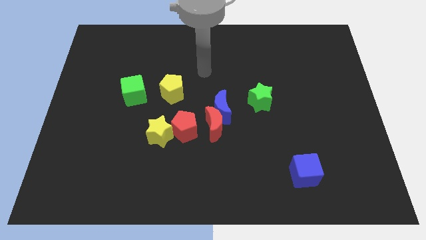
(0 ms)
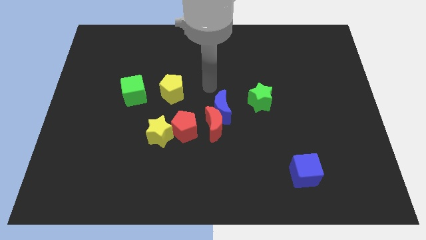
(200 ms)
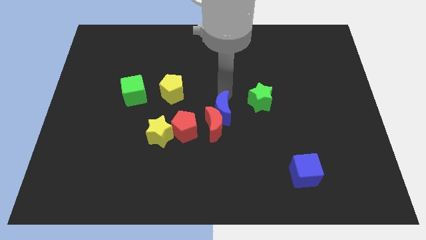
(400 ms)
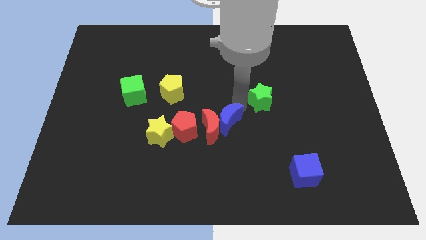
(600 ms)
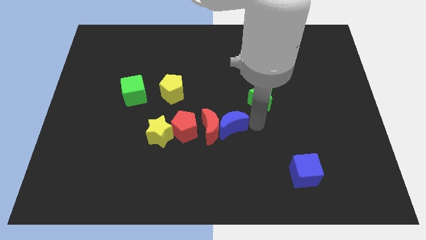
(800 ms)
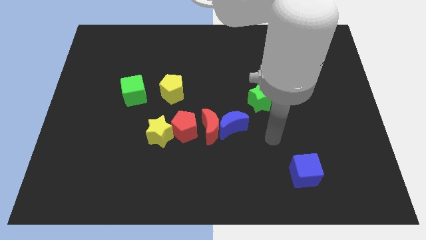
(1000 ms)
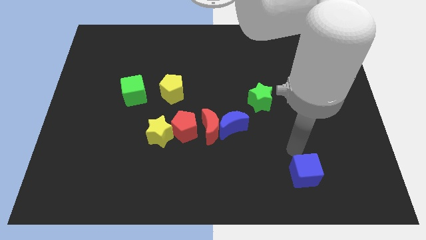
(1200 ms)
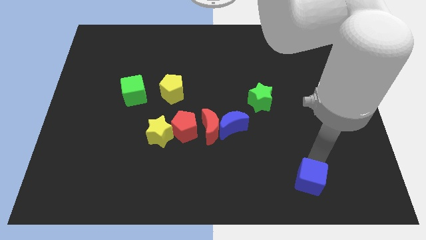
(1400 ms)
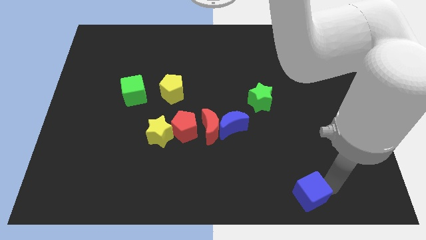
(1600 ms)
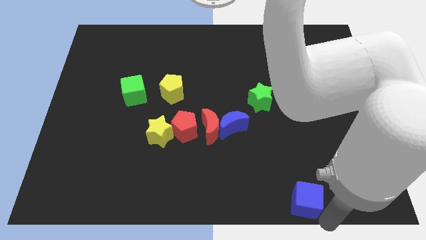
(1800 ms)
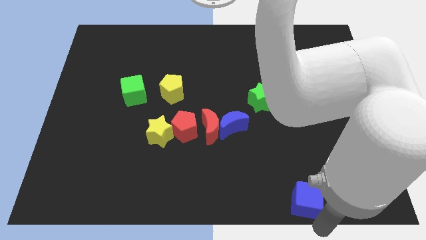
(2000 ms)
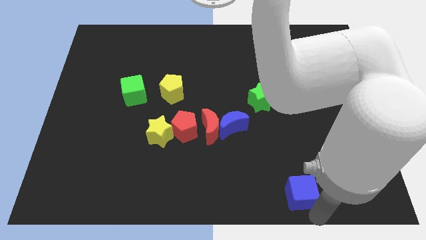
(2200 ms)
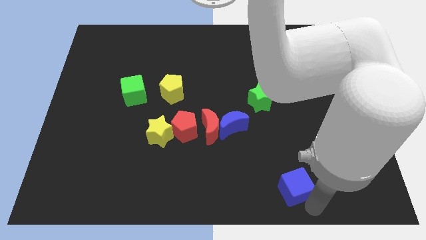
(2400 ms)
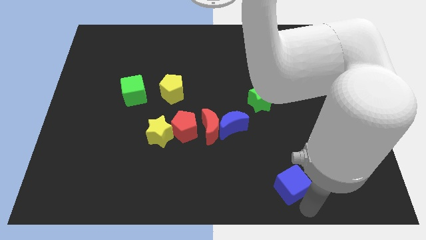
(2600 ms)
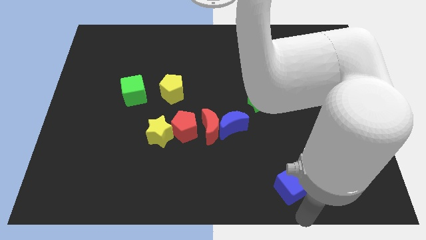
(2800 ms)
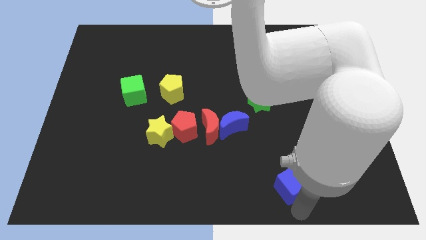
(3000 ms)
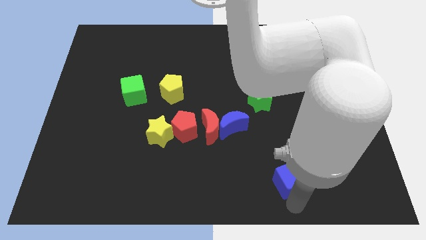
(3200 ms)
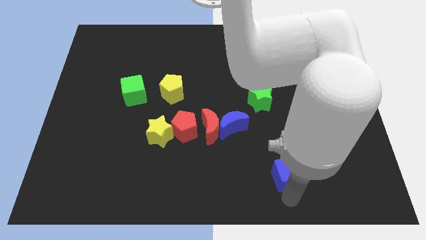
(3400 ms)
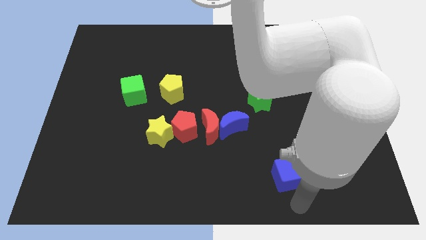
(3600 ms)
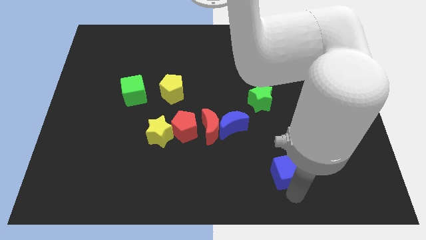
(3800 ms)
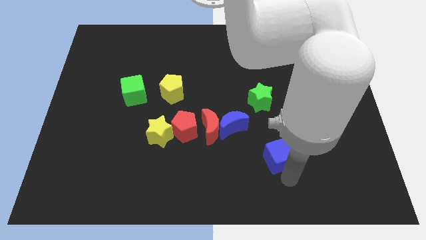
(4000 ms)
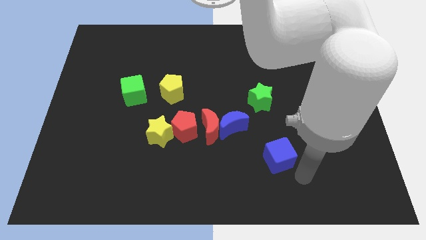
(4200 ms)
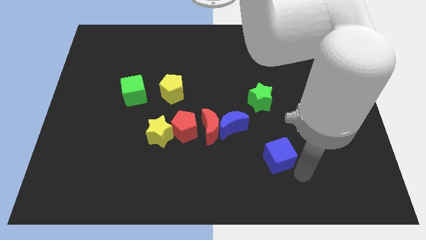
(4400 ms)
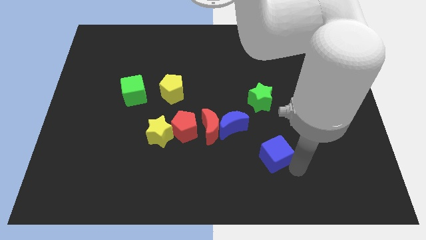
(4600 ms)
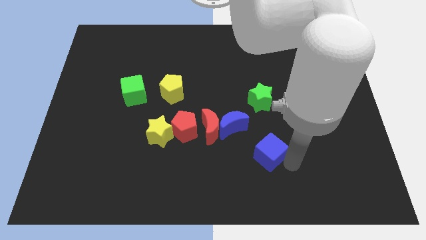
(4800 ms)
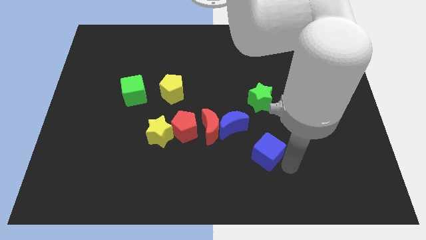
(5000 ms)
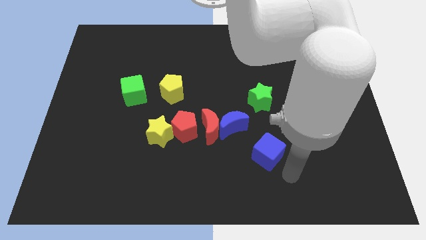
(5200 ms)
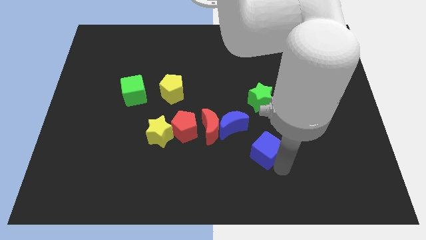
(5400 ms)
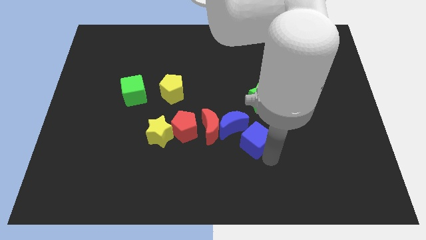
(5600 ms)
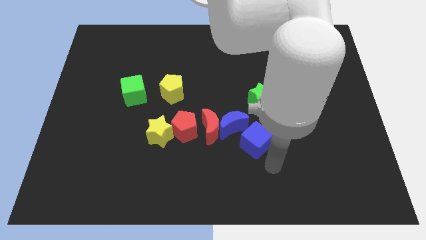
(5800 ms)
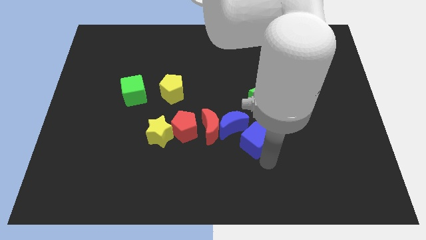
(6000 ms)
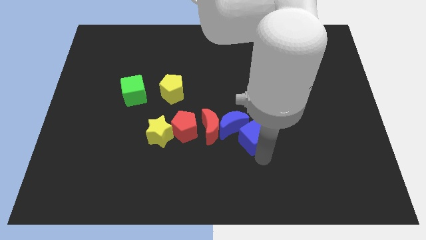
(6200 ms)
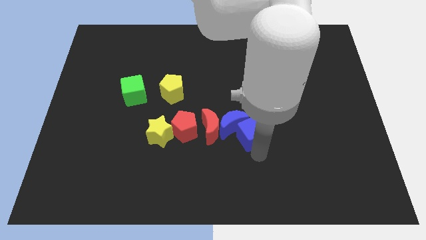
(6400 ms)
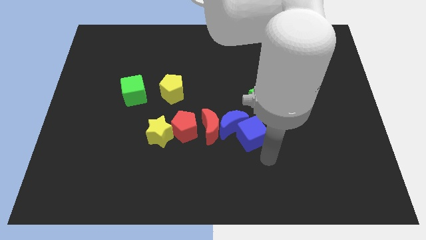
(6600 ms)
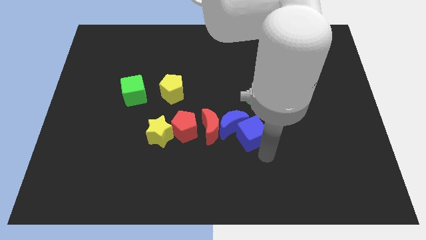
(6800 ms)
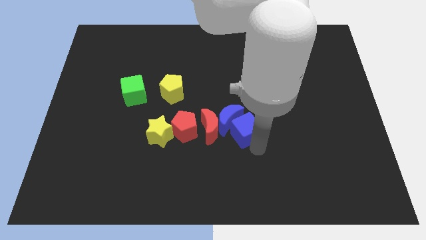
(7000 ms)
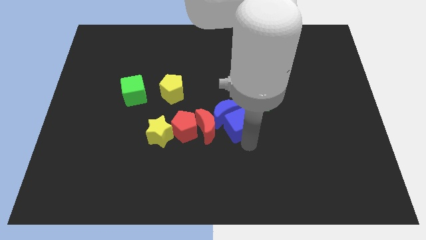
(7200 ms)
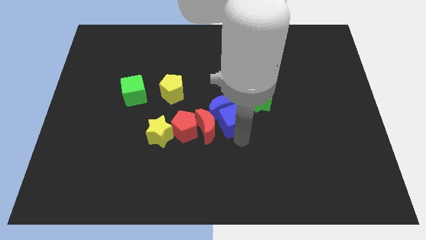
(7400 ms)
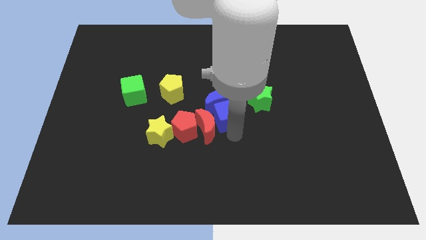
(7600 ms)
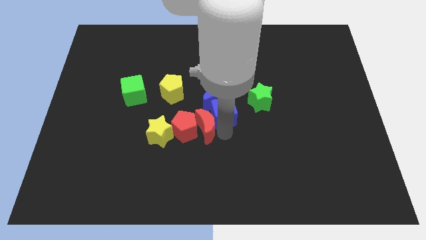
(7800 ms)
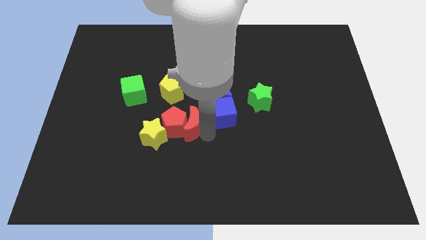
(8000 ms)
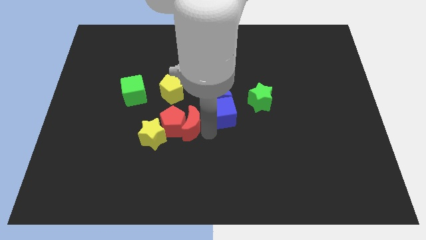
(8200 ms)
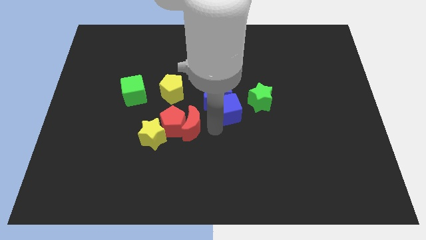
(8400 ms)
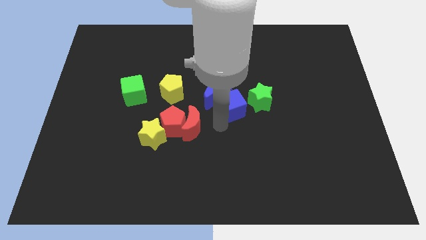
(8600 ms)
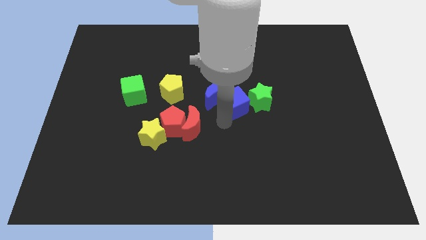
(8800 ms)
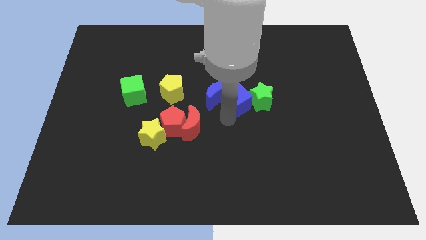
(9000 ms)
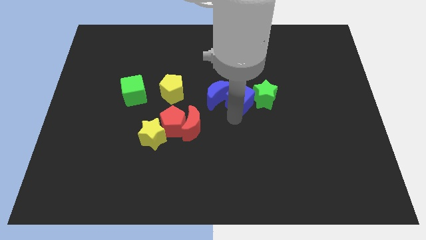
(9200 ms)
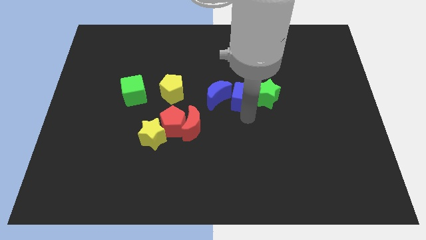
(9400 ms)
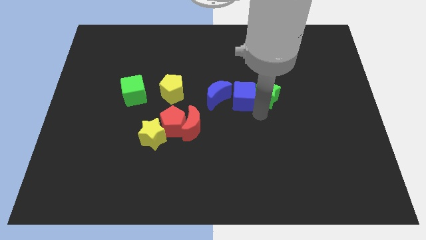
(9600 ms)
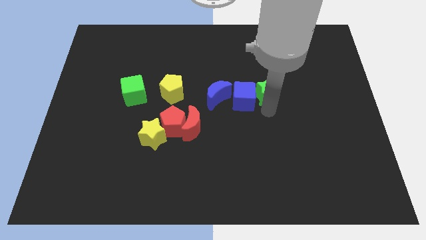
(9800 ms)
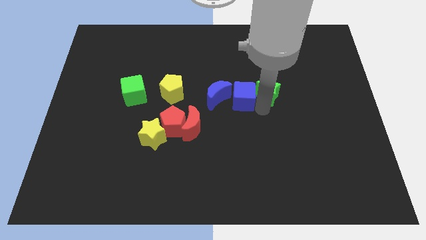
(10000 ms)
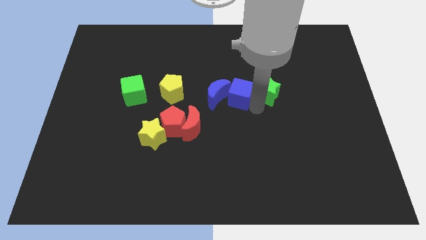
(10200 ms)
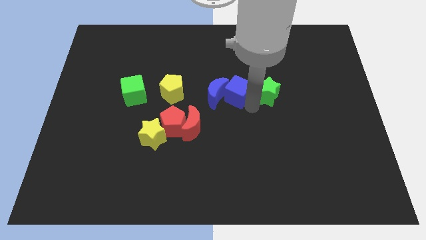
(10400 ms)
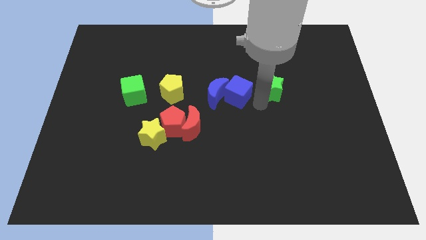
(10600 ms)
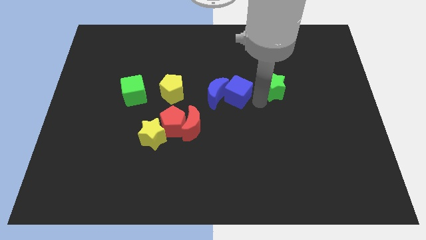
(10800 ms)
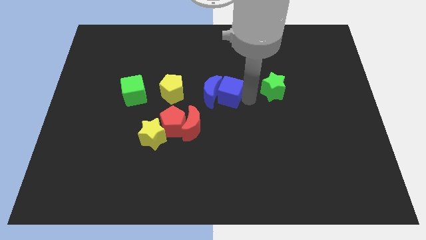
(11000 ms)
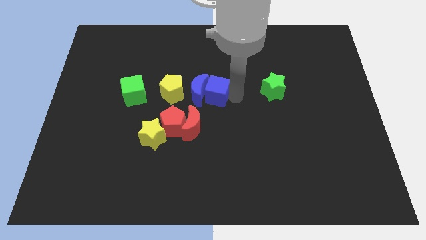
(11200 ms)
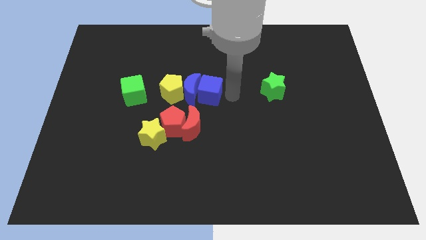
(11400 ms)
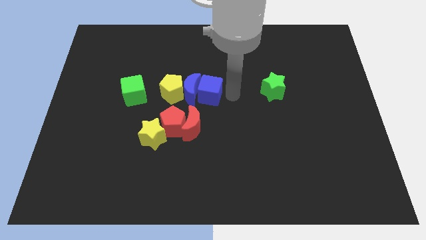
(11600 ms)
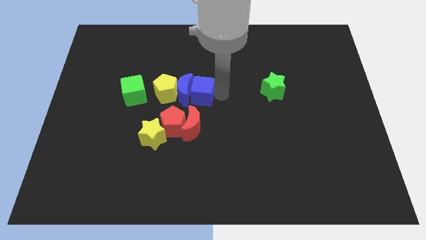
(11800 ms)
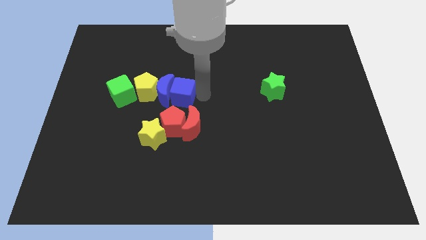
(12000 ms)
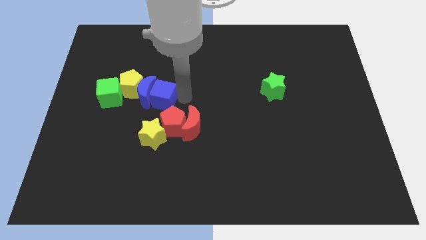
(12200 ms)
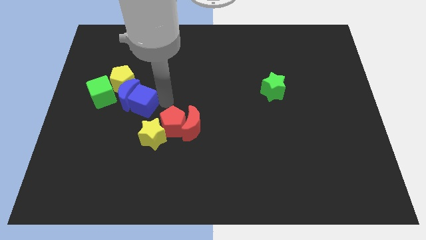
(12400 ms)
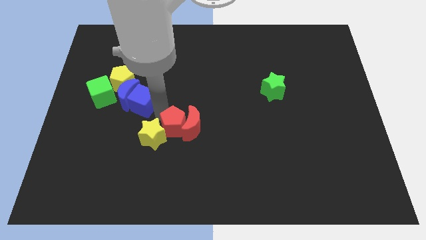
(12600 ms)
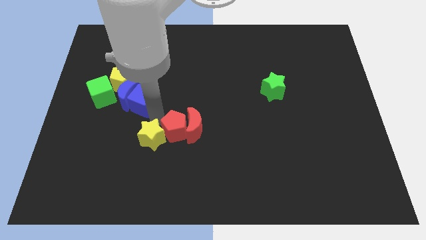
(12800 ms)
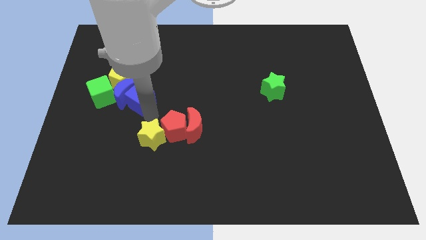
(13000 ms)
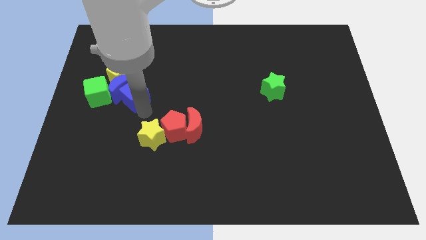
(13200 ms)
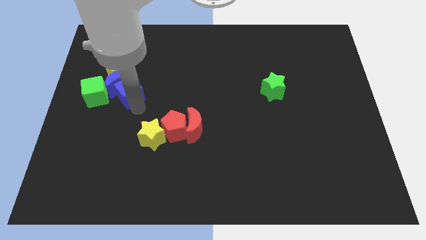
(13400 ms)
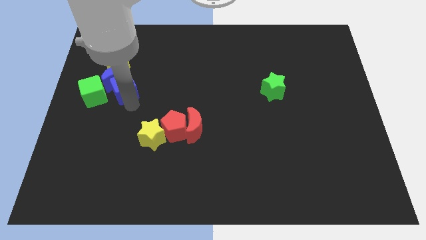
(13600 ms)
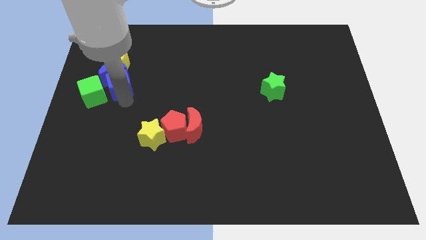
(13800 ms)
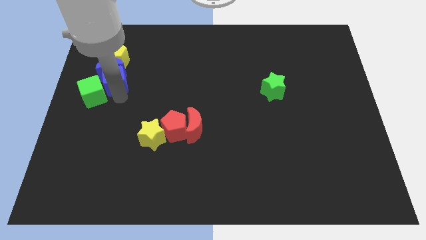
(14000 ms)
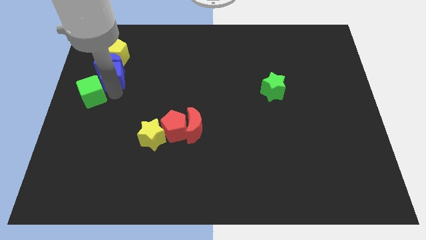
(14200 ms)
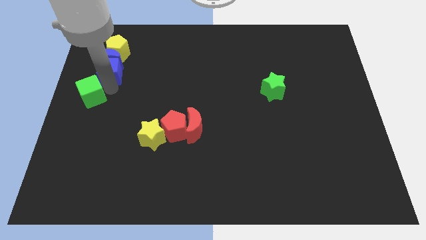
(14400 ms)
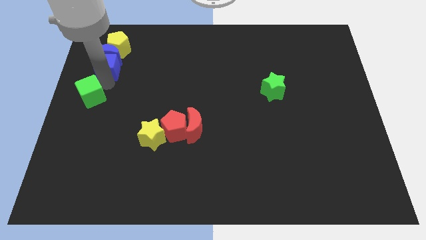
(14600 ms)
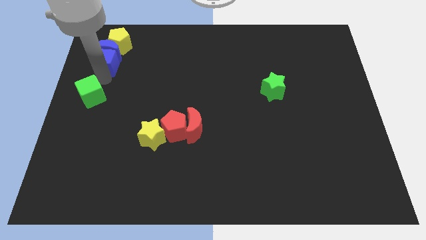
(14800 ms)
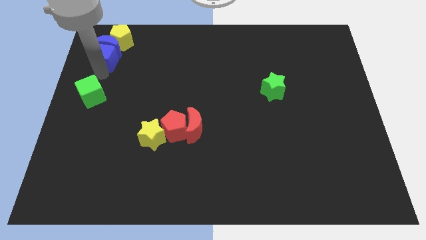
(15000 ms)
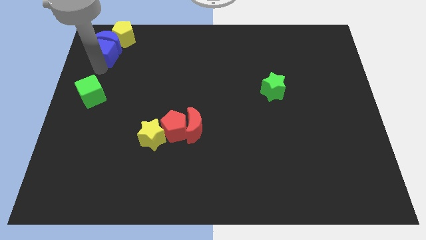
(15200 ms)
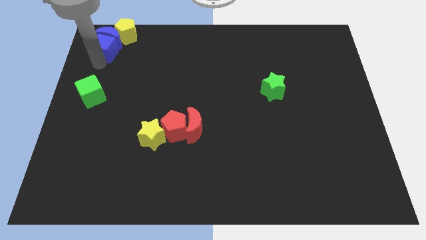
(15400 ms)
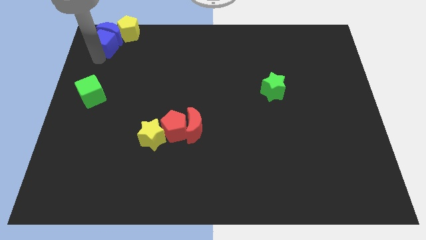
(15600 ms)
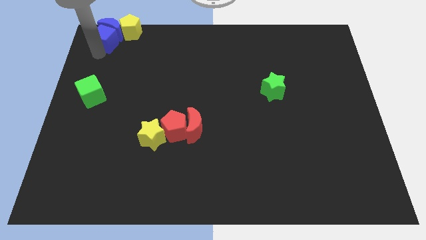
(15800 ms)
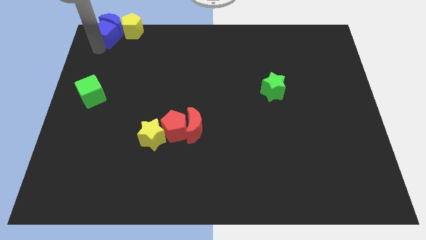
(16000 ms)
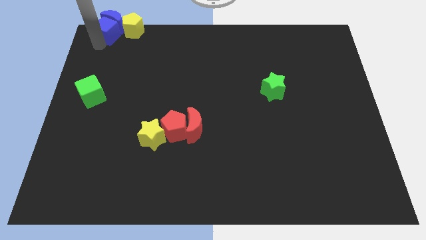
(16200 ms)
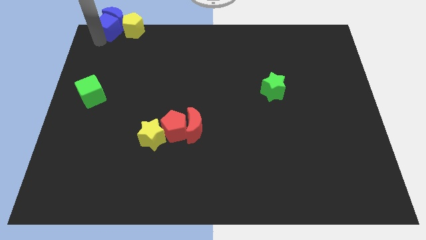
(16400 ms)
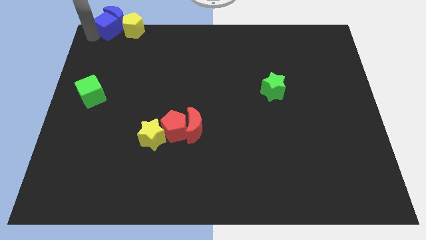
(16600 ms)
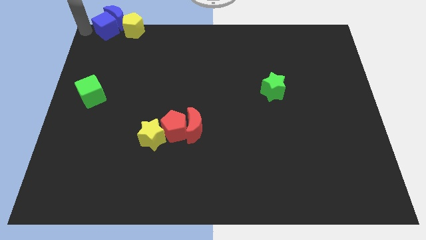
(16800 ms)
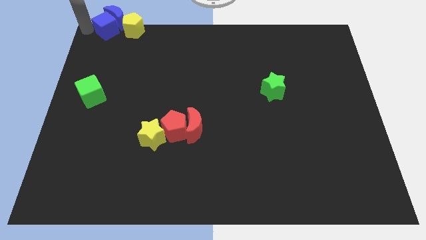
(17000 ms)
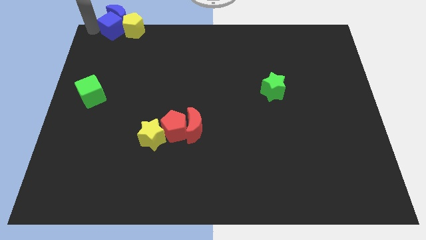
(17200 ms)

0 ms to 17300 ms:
put the blue cube close to the yellow pentagon
